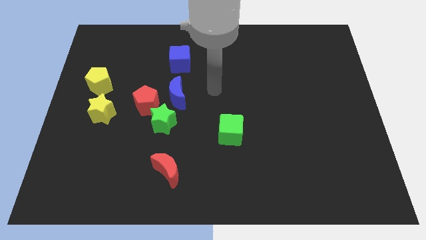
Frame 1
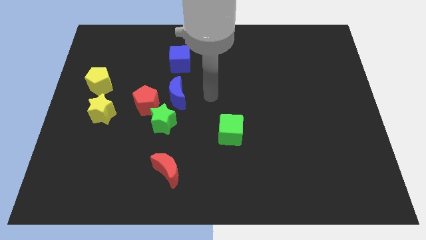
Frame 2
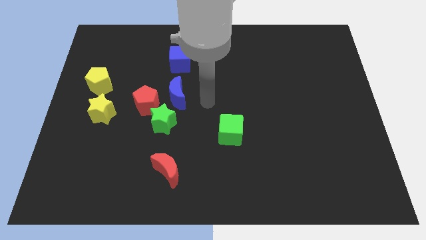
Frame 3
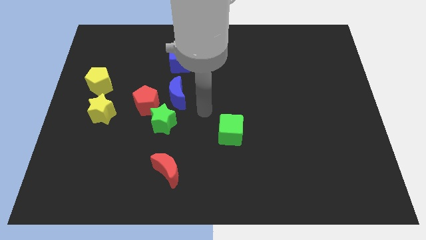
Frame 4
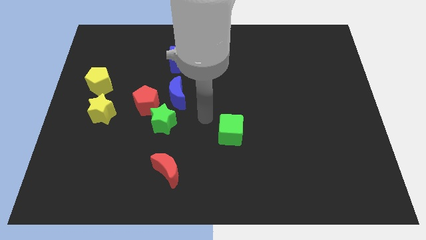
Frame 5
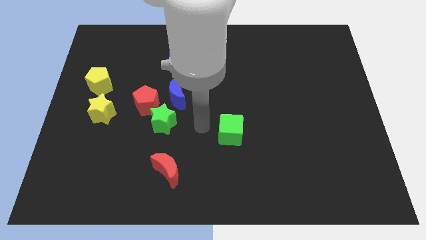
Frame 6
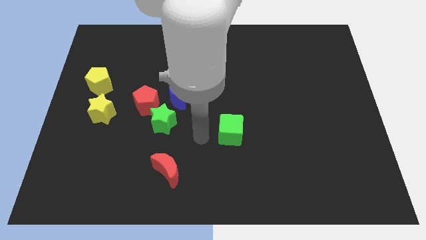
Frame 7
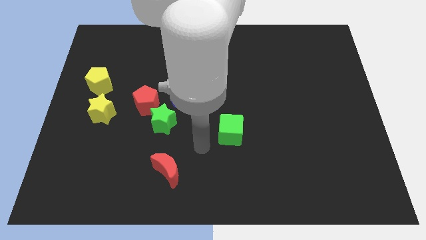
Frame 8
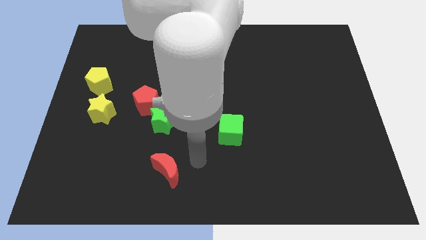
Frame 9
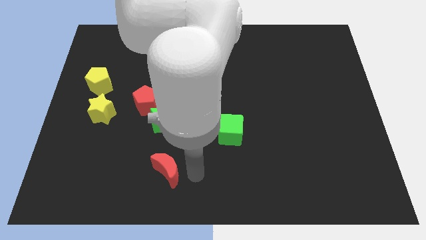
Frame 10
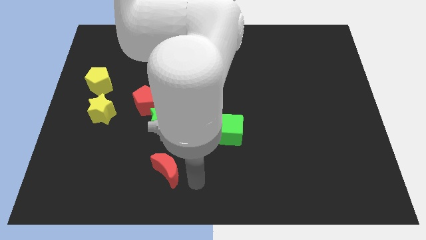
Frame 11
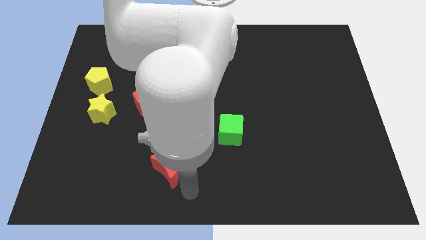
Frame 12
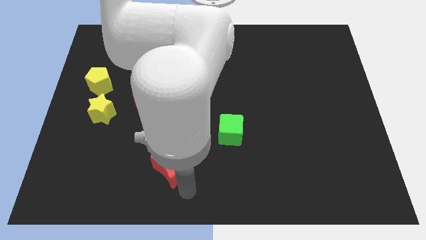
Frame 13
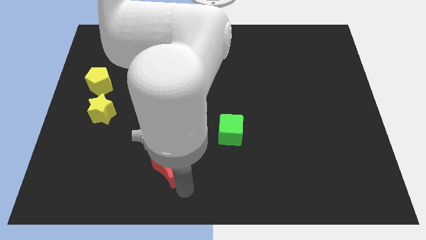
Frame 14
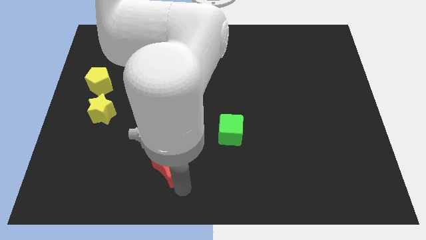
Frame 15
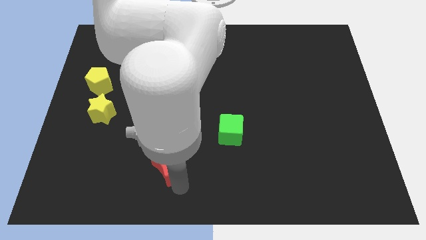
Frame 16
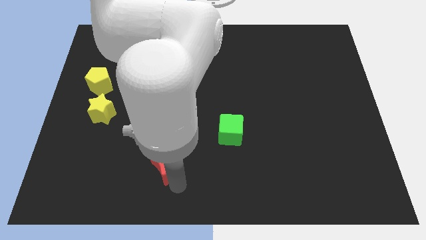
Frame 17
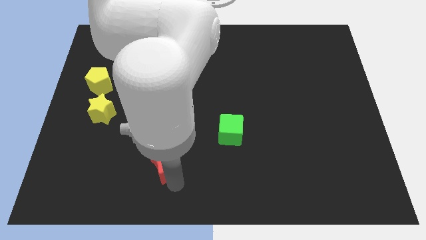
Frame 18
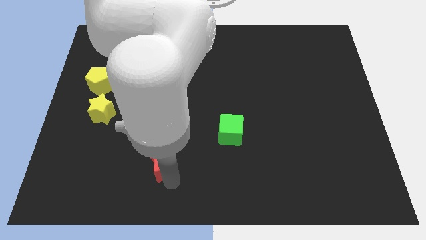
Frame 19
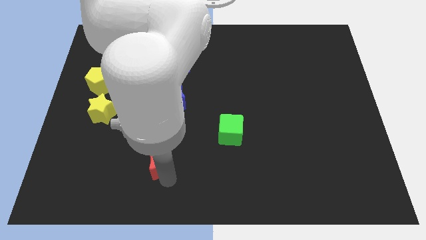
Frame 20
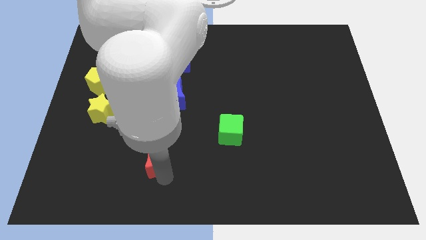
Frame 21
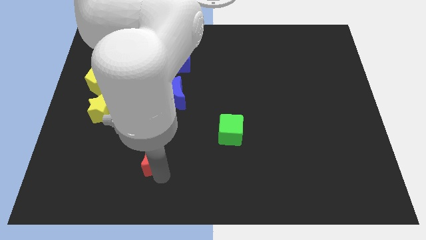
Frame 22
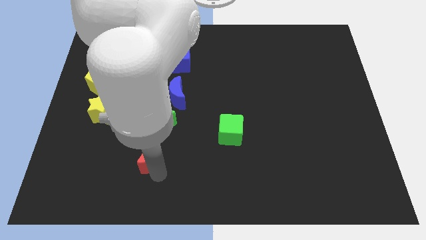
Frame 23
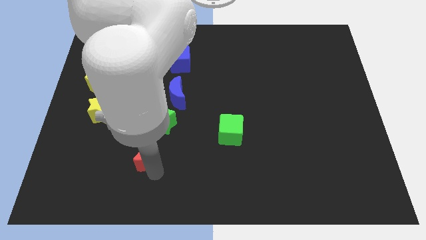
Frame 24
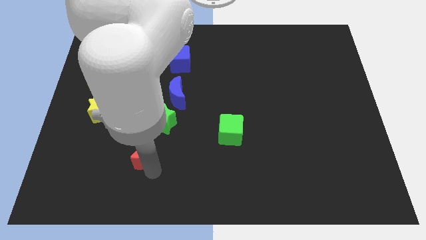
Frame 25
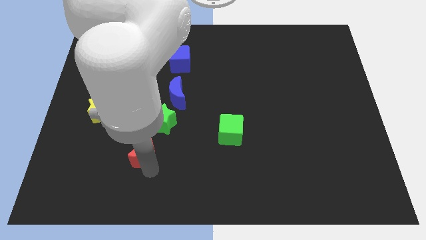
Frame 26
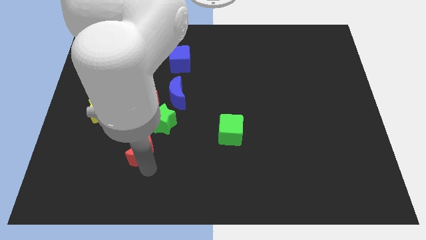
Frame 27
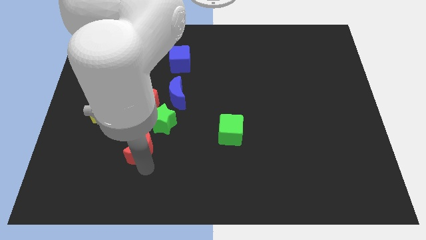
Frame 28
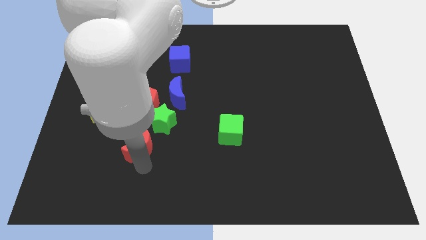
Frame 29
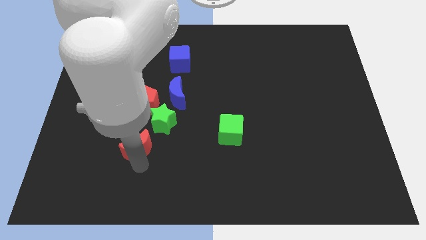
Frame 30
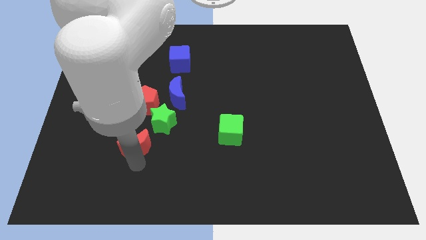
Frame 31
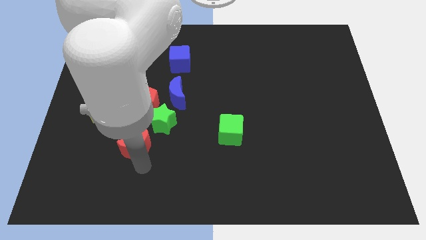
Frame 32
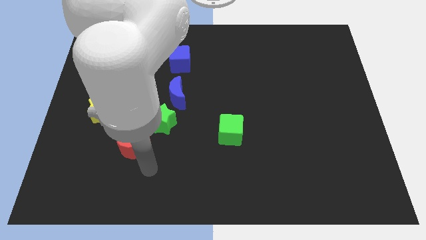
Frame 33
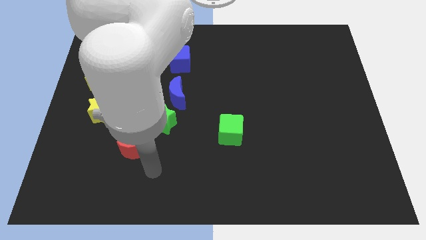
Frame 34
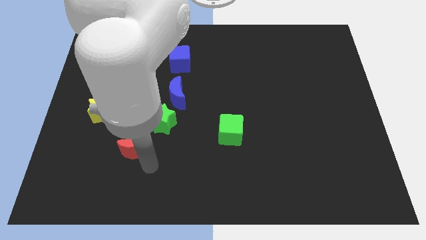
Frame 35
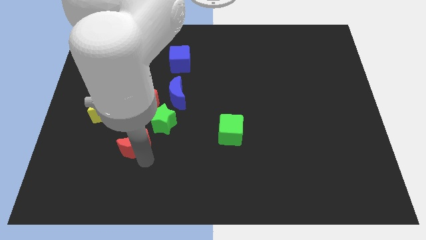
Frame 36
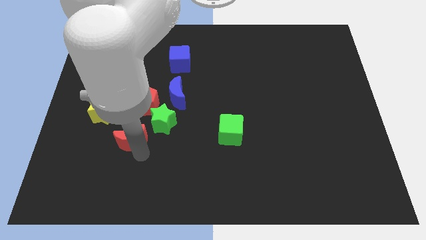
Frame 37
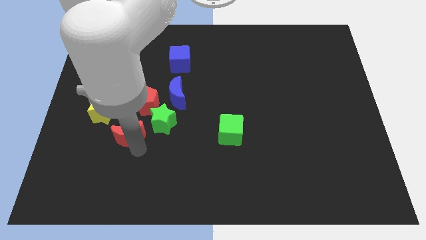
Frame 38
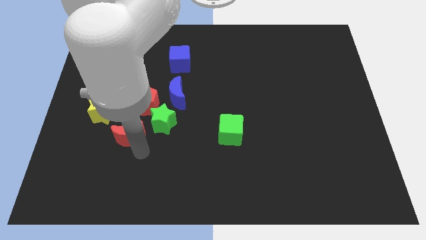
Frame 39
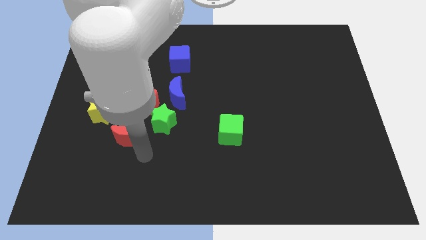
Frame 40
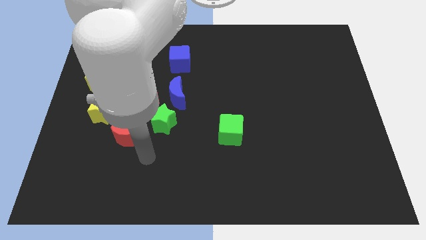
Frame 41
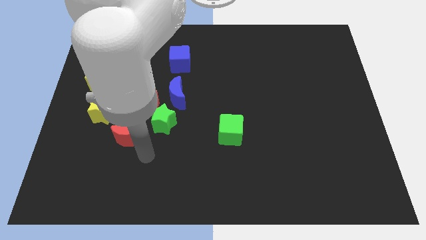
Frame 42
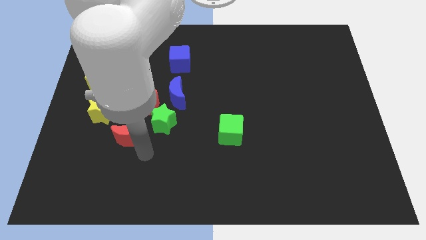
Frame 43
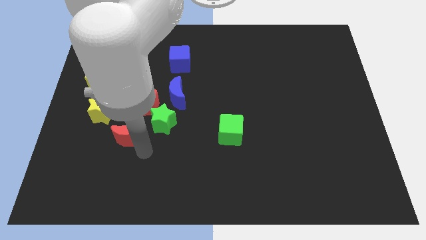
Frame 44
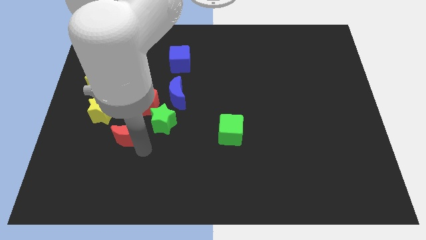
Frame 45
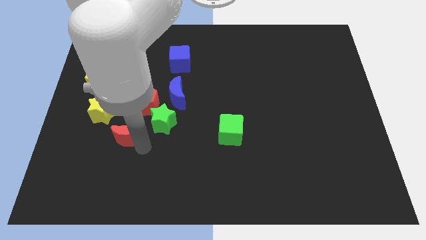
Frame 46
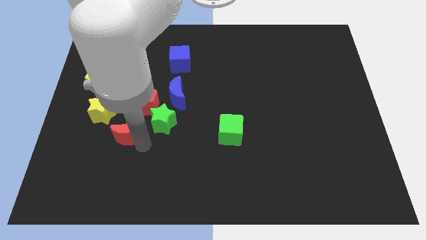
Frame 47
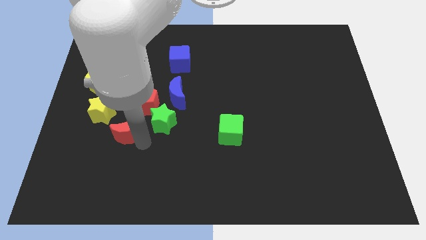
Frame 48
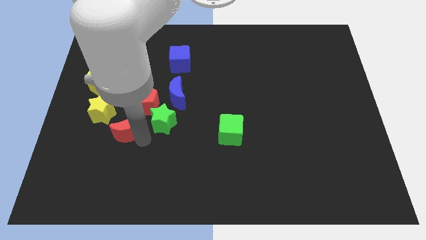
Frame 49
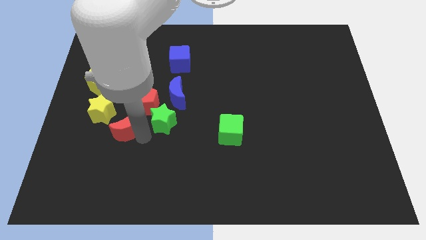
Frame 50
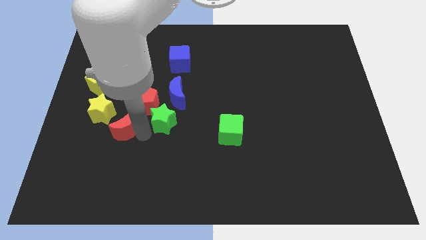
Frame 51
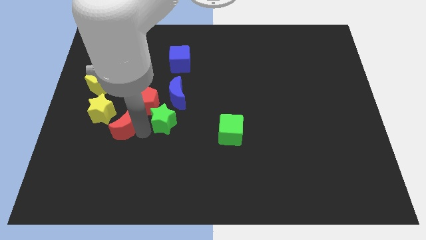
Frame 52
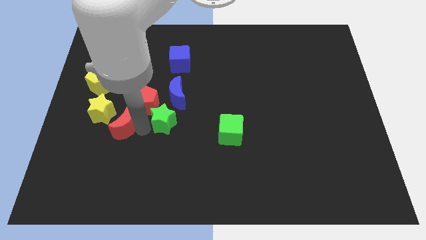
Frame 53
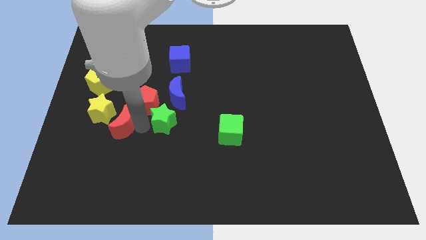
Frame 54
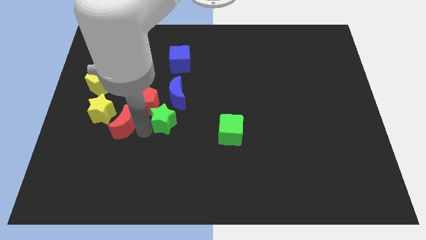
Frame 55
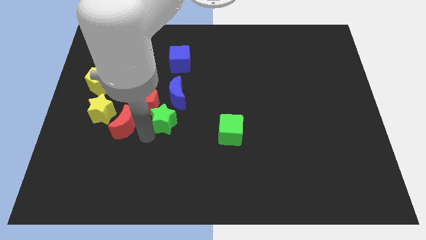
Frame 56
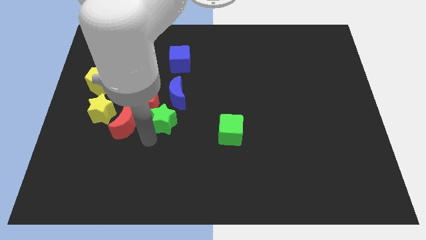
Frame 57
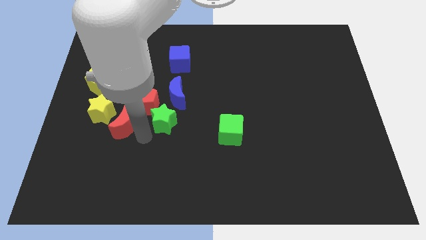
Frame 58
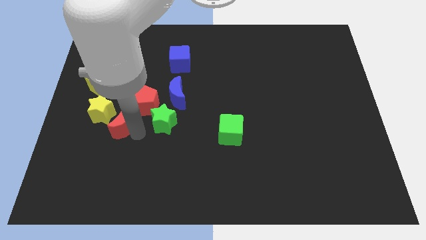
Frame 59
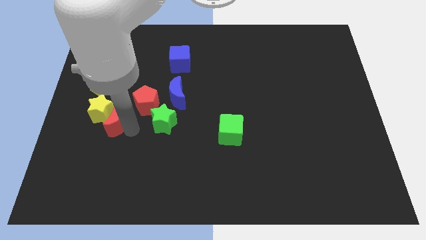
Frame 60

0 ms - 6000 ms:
put the red moon close to the yellow star

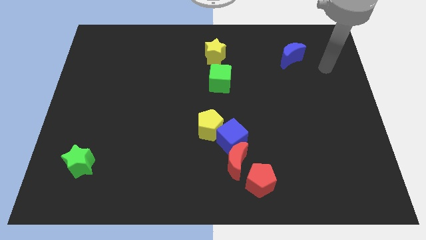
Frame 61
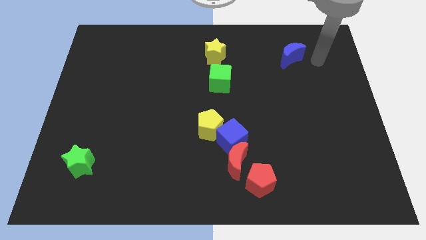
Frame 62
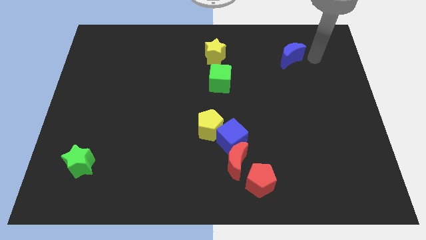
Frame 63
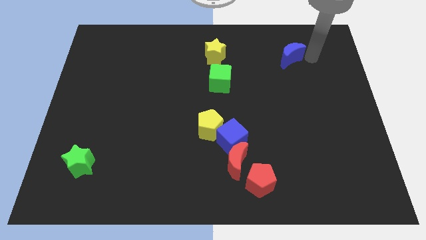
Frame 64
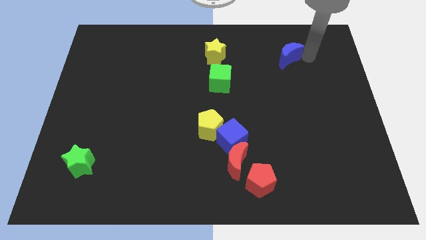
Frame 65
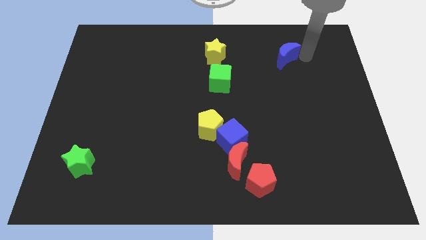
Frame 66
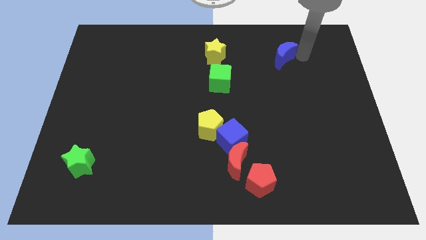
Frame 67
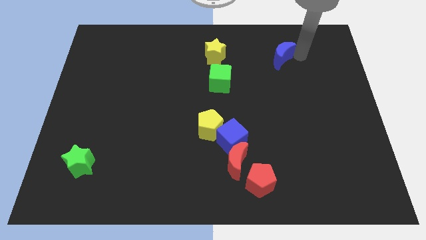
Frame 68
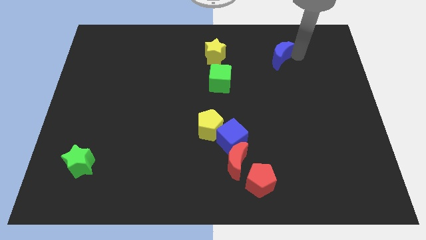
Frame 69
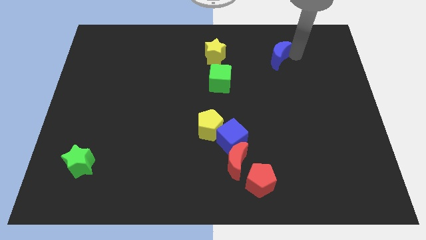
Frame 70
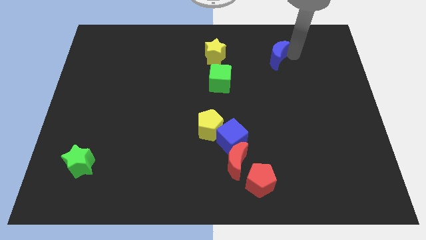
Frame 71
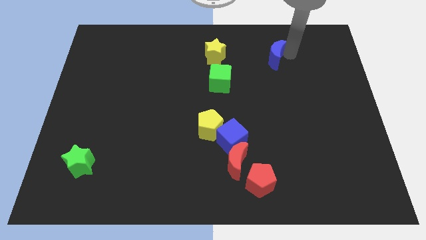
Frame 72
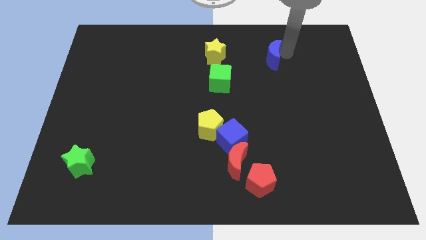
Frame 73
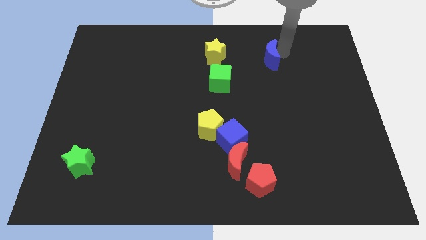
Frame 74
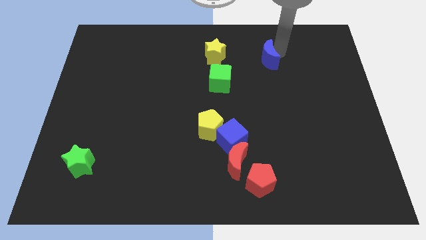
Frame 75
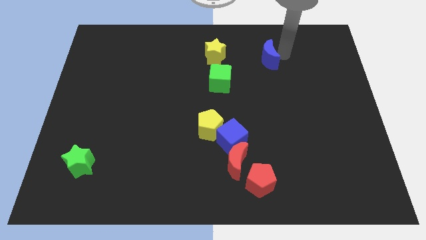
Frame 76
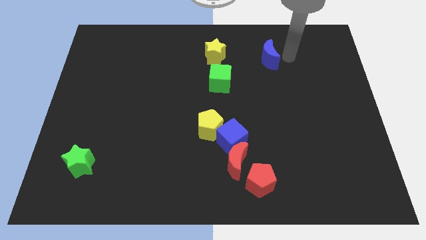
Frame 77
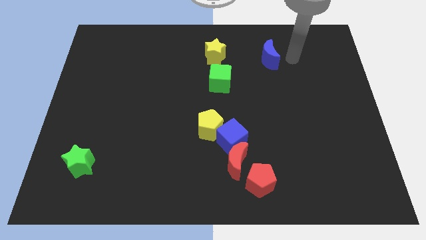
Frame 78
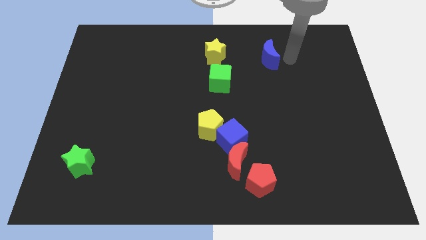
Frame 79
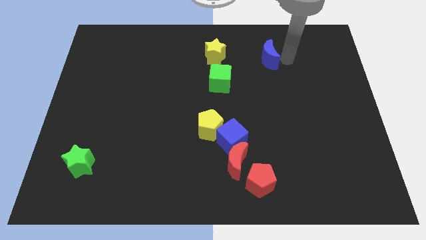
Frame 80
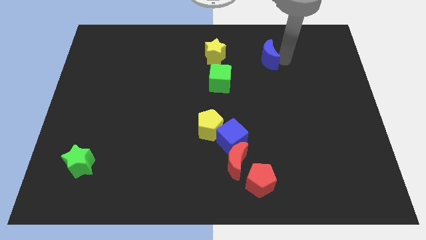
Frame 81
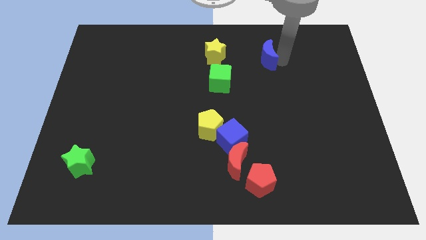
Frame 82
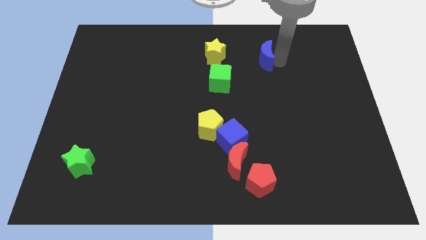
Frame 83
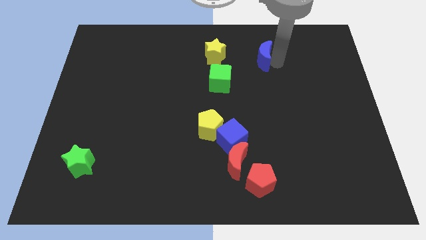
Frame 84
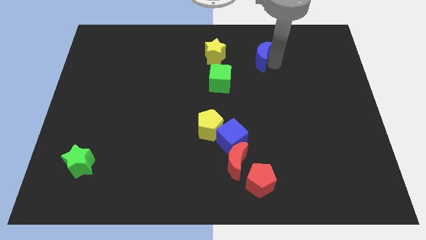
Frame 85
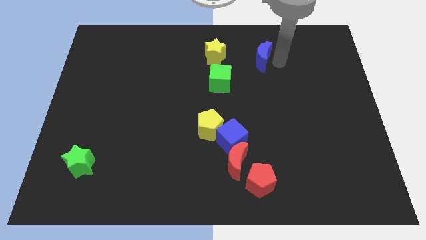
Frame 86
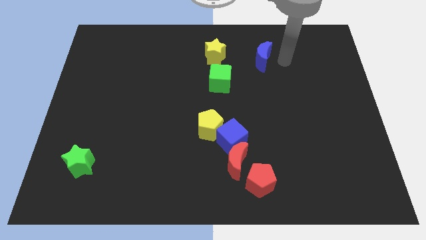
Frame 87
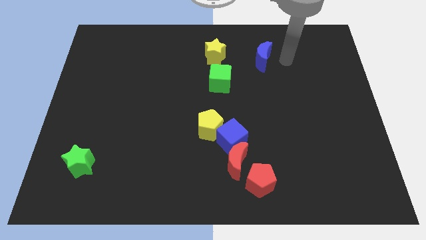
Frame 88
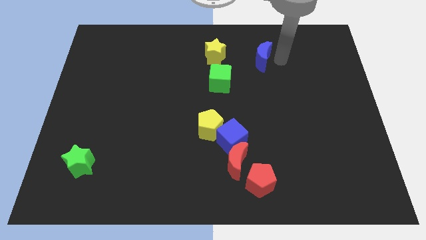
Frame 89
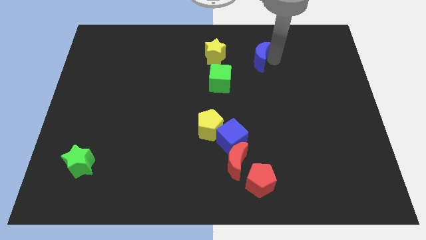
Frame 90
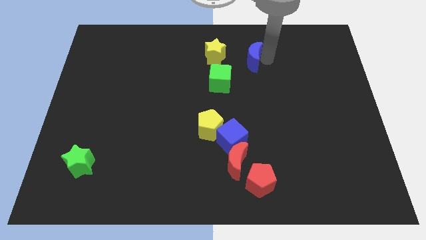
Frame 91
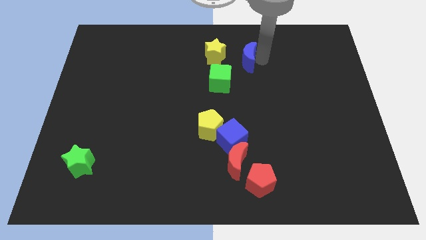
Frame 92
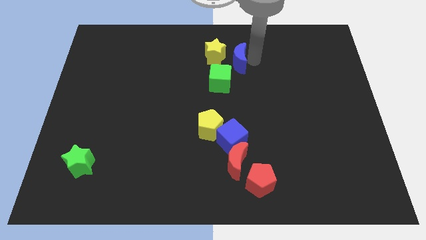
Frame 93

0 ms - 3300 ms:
slide the blue moon towards the yellow star
